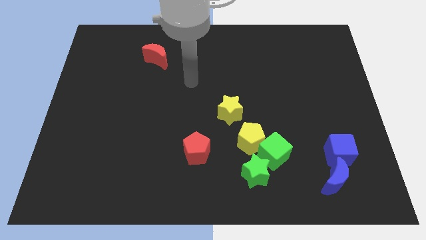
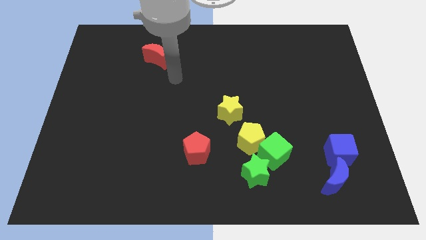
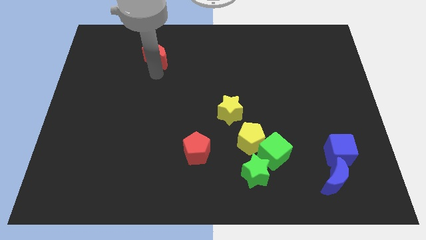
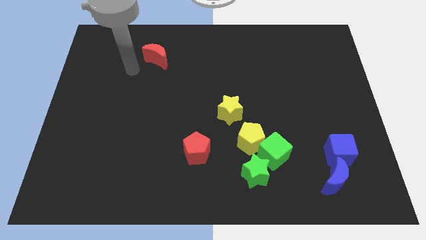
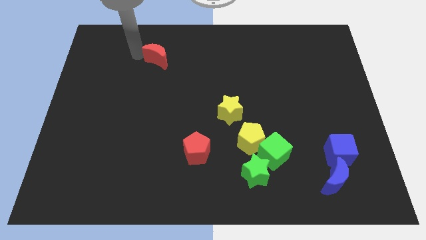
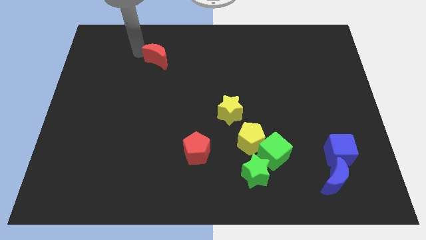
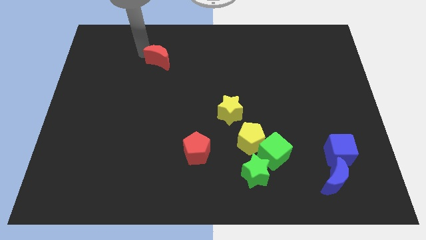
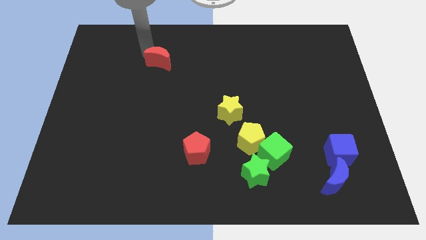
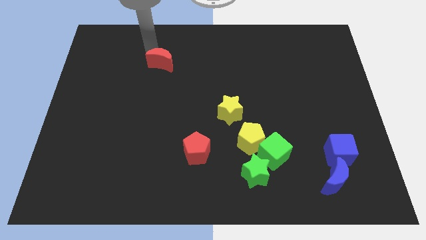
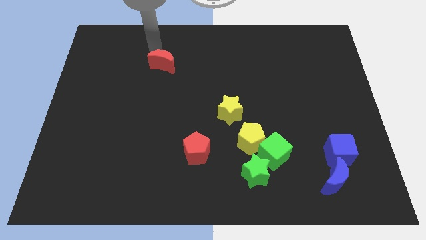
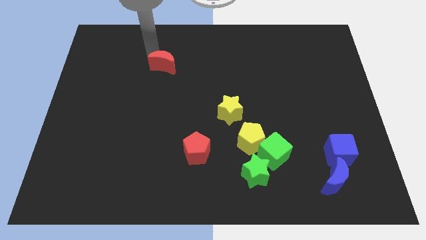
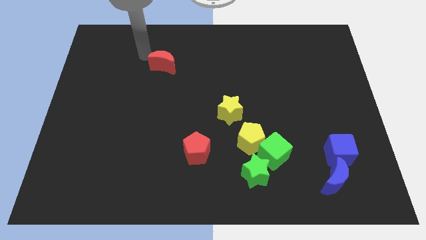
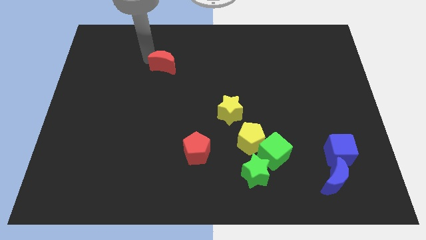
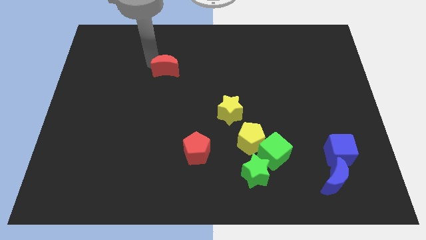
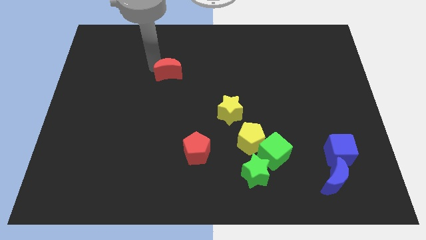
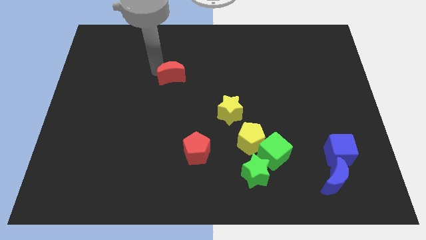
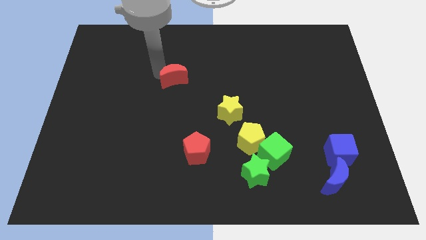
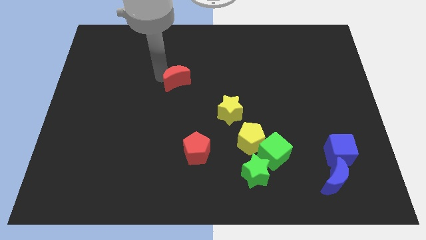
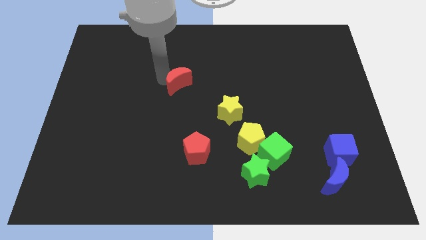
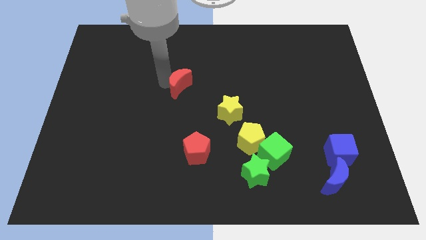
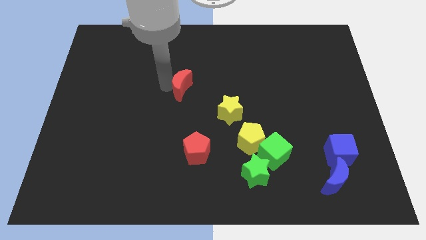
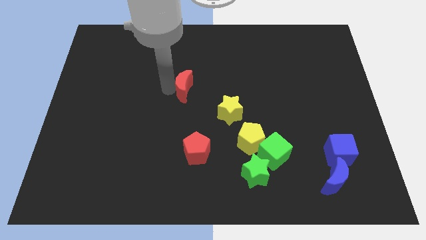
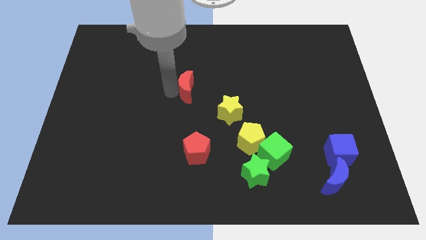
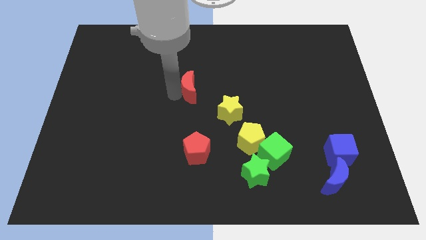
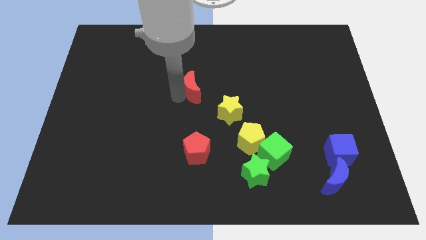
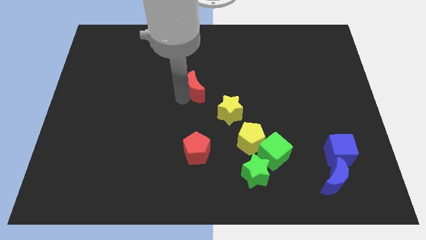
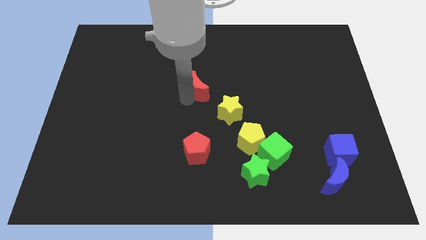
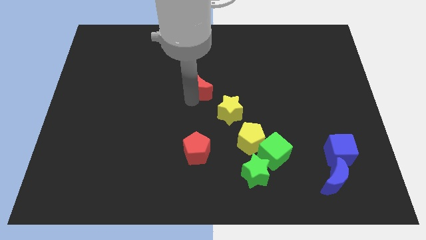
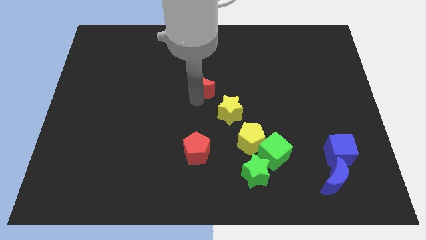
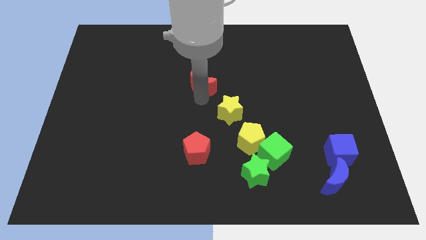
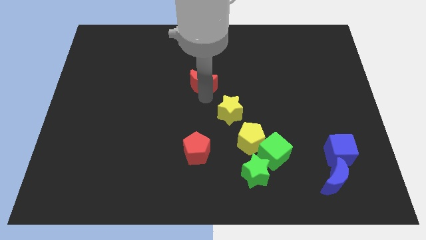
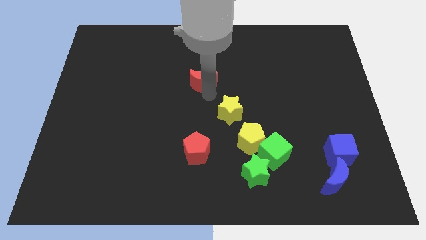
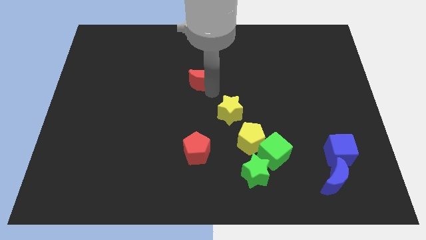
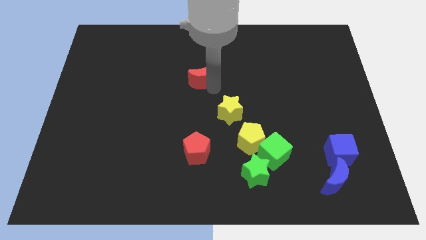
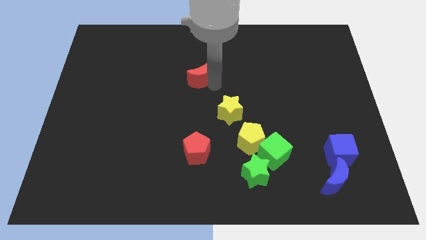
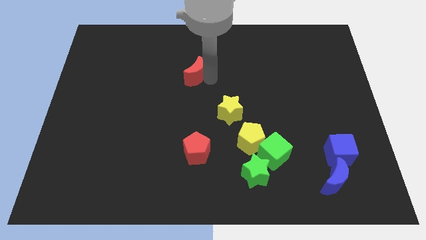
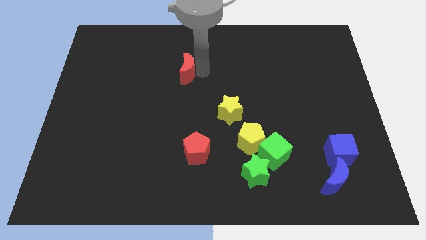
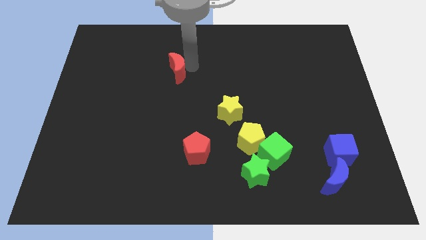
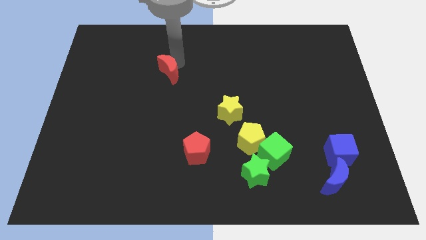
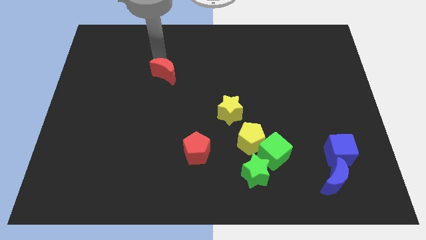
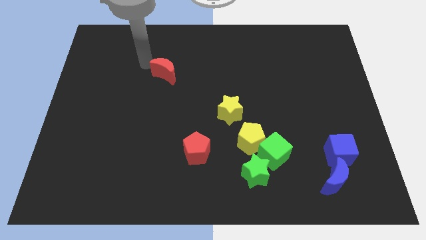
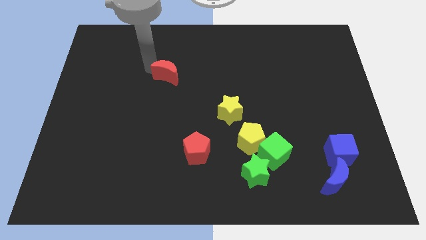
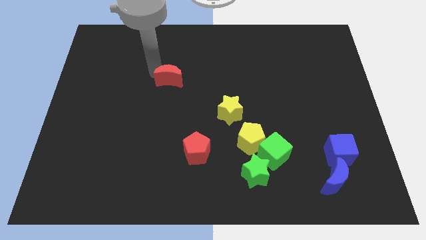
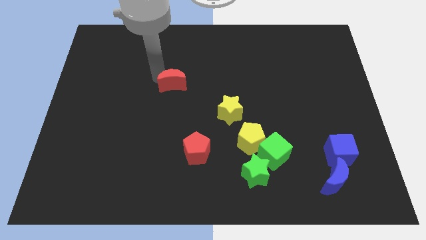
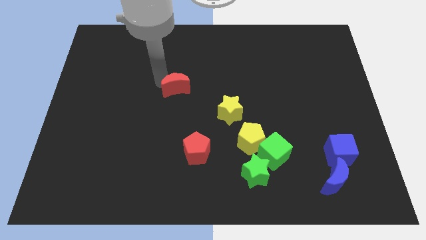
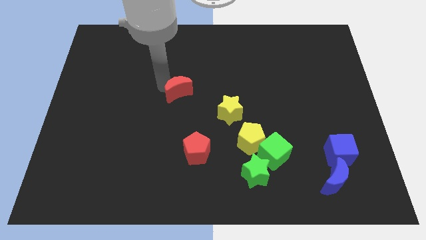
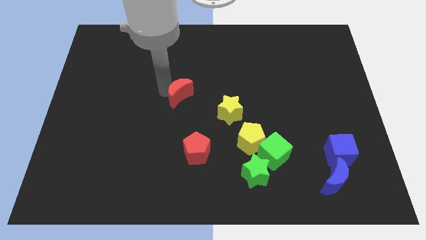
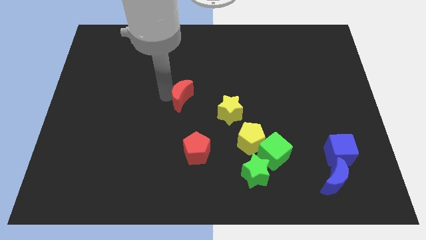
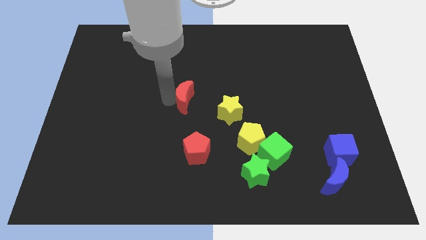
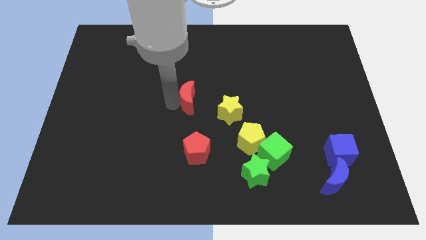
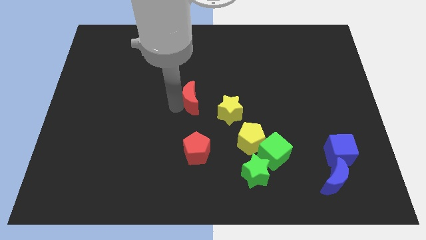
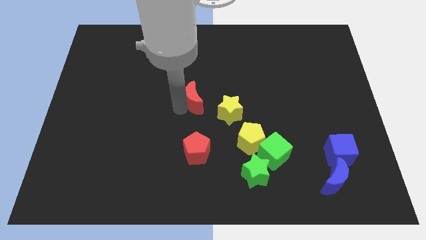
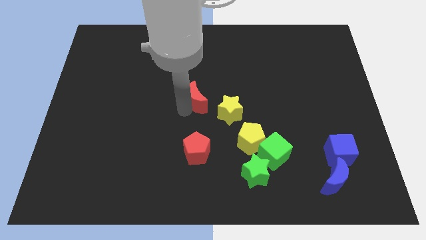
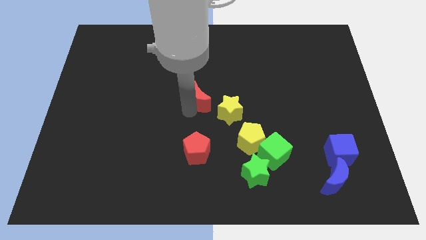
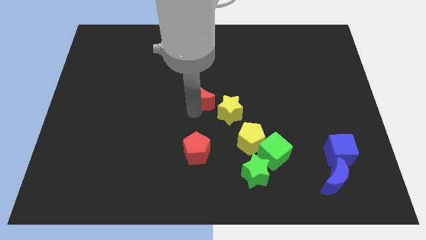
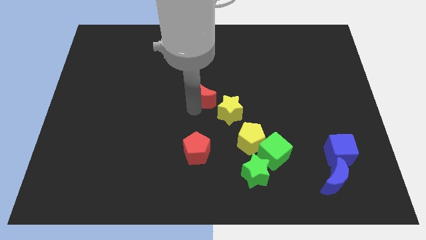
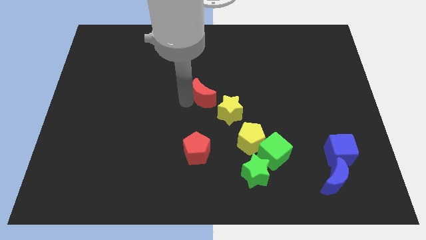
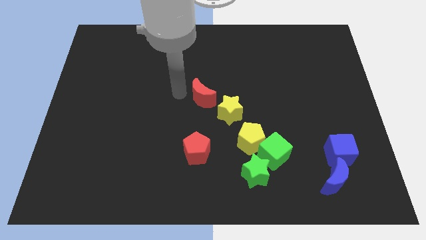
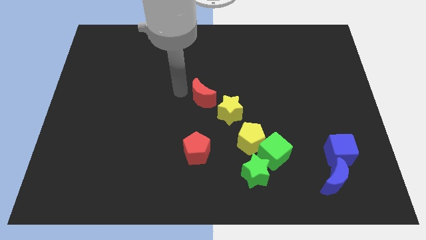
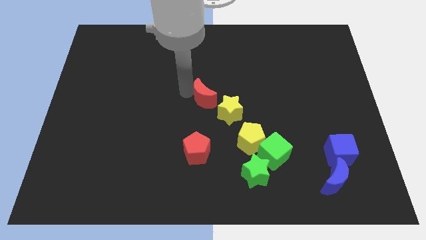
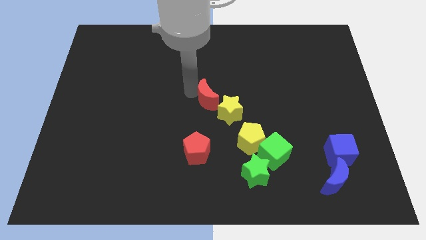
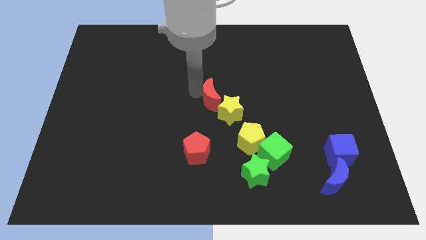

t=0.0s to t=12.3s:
put the red moon close to the yellow star
